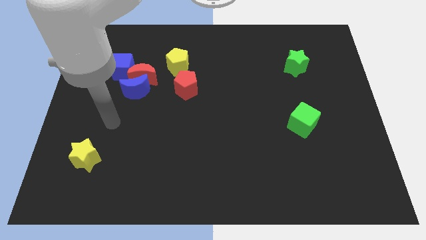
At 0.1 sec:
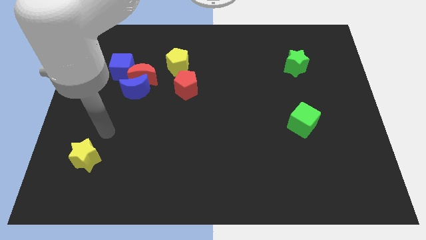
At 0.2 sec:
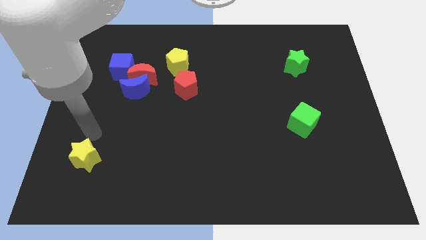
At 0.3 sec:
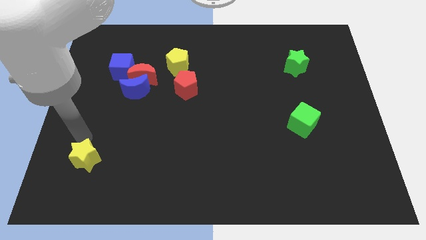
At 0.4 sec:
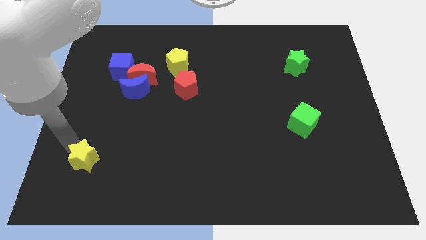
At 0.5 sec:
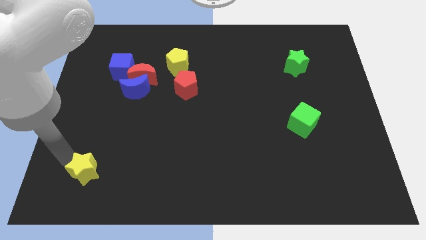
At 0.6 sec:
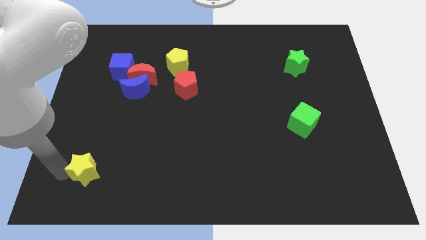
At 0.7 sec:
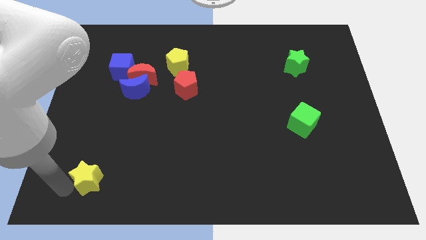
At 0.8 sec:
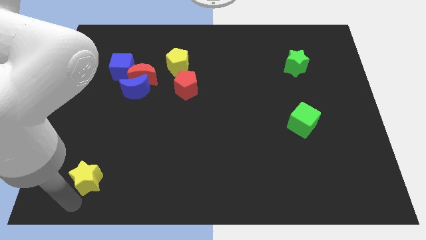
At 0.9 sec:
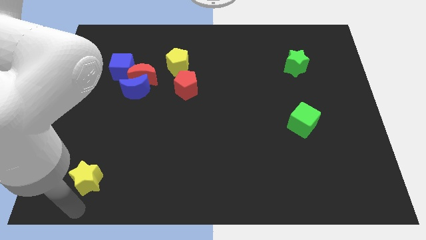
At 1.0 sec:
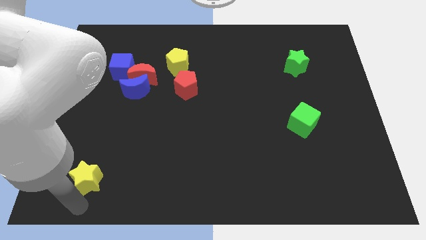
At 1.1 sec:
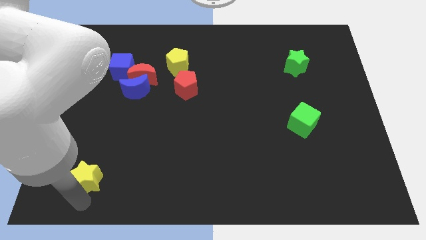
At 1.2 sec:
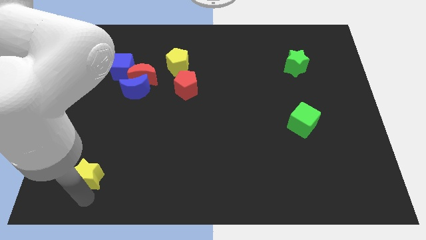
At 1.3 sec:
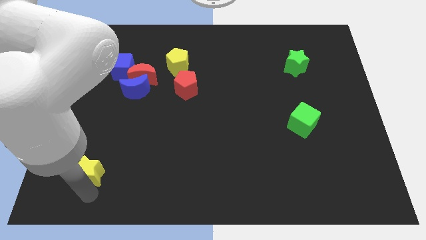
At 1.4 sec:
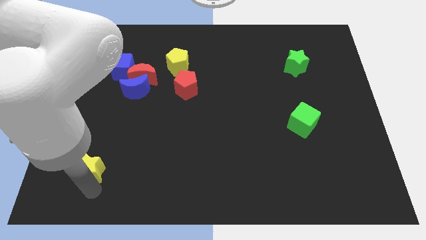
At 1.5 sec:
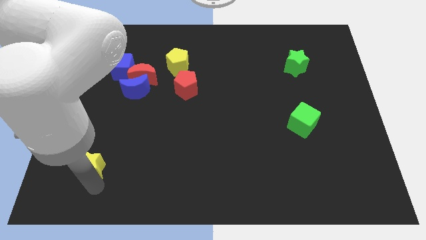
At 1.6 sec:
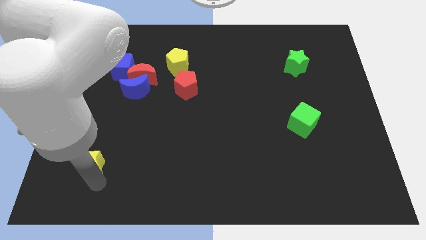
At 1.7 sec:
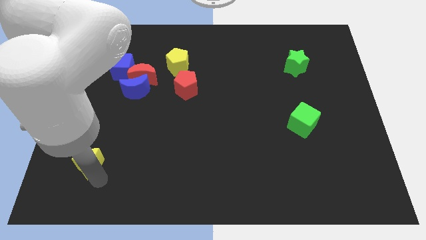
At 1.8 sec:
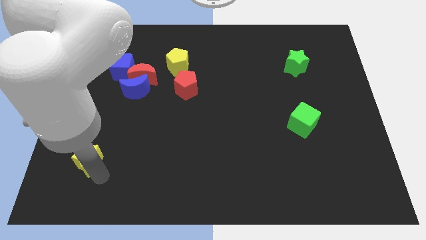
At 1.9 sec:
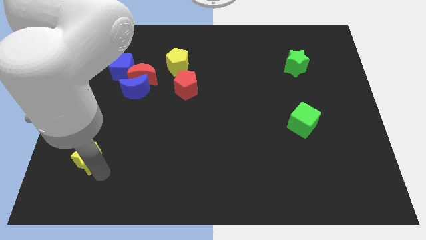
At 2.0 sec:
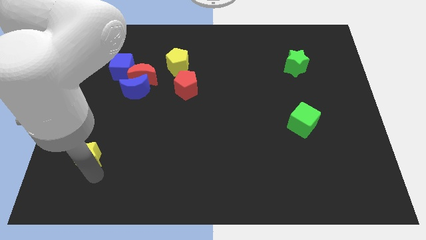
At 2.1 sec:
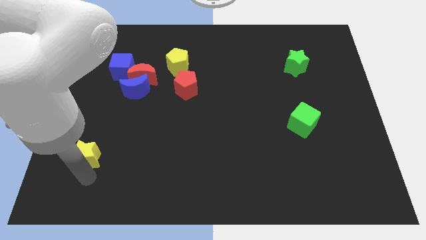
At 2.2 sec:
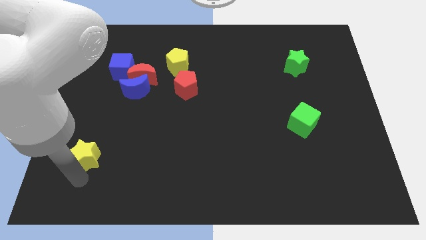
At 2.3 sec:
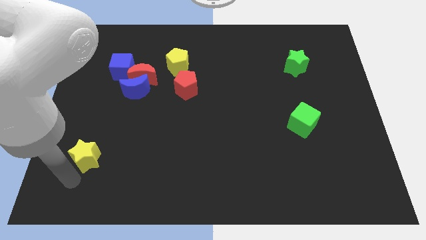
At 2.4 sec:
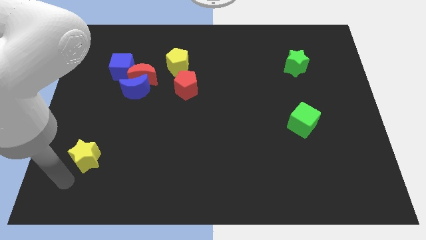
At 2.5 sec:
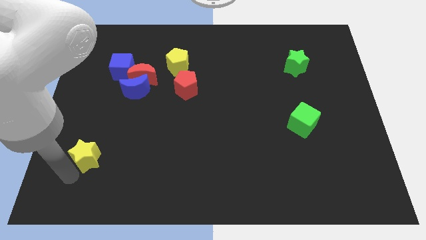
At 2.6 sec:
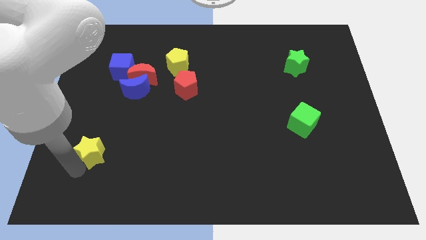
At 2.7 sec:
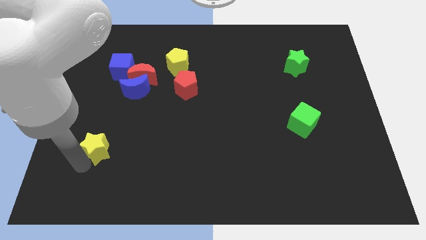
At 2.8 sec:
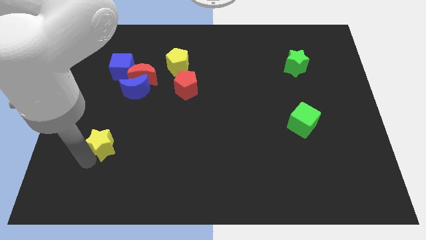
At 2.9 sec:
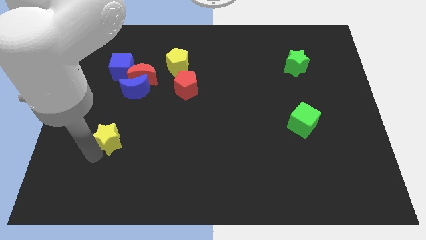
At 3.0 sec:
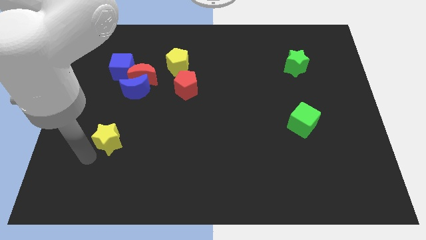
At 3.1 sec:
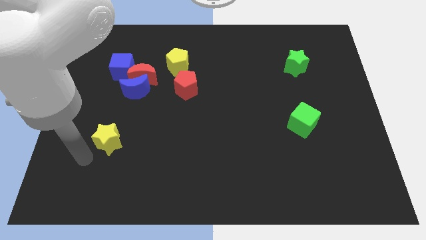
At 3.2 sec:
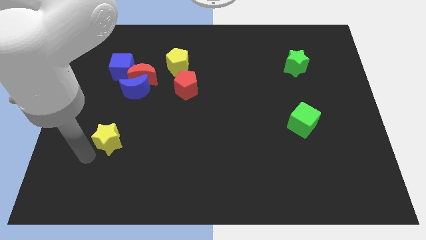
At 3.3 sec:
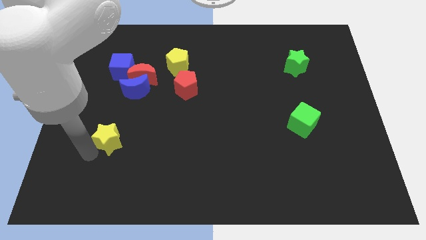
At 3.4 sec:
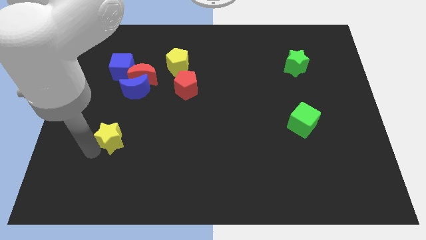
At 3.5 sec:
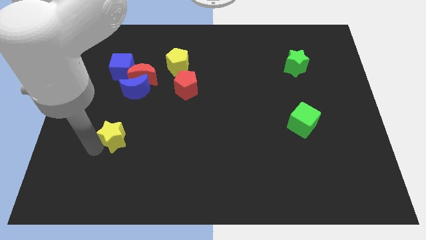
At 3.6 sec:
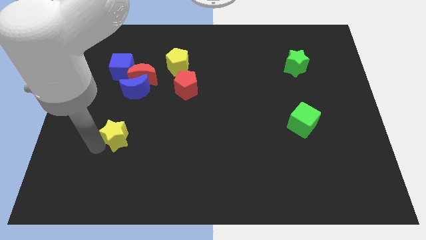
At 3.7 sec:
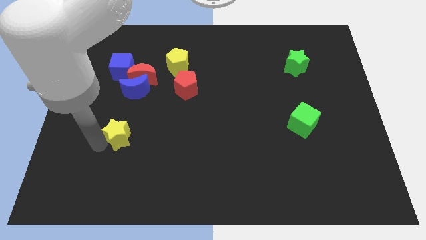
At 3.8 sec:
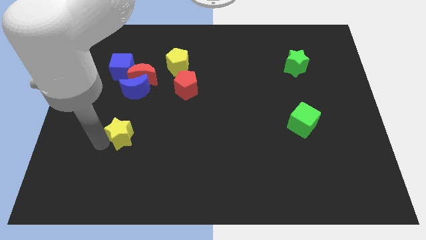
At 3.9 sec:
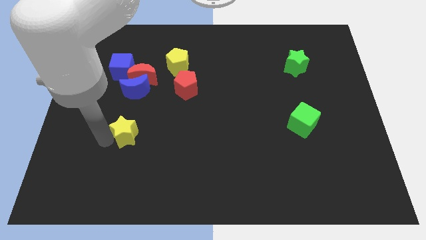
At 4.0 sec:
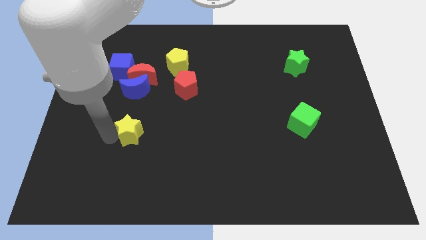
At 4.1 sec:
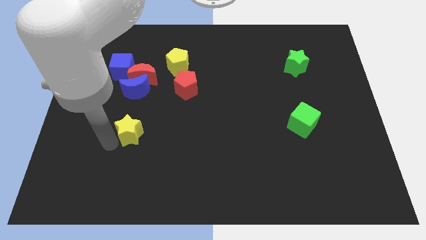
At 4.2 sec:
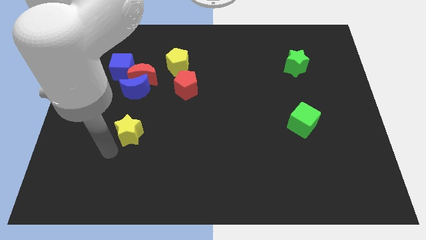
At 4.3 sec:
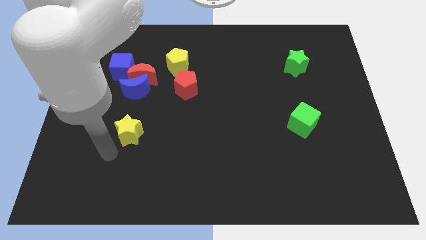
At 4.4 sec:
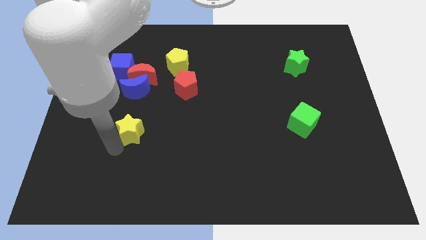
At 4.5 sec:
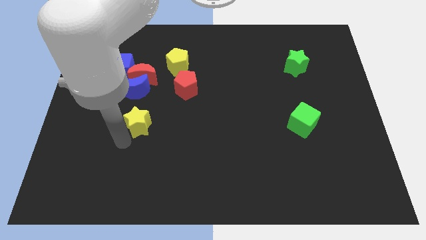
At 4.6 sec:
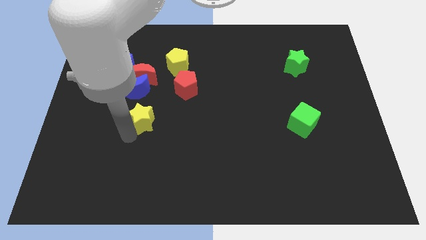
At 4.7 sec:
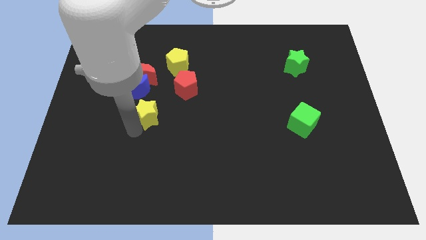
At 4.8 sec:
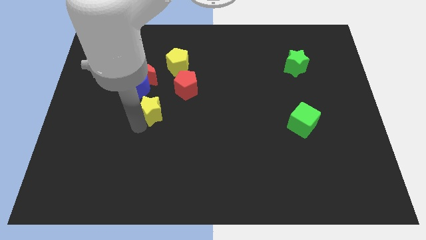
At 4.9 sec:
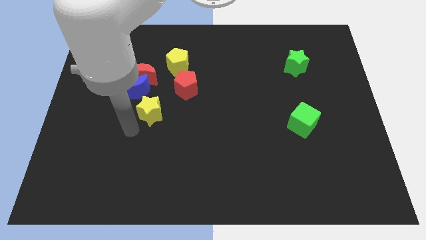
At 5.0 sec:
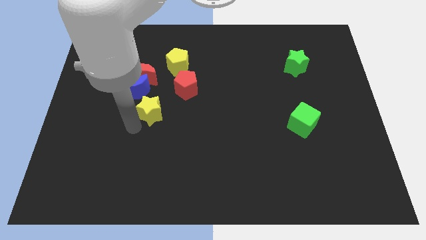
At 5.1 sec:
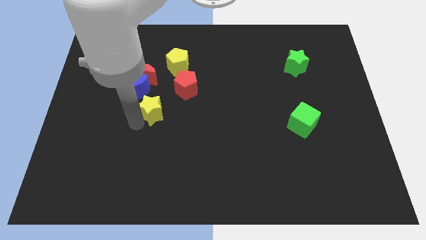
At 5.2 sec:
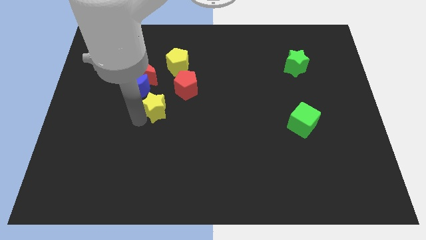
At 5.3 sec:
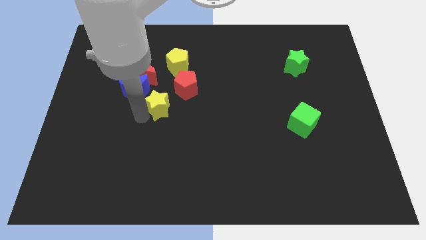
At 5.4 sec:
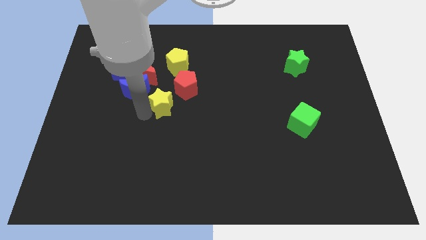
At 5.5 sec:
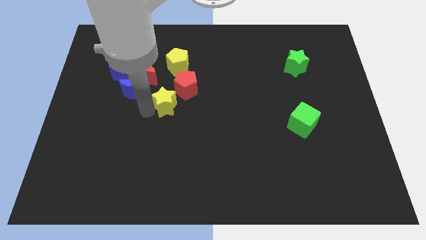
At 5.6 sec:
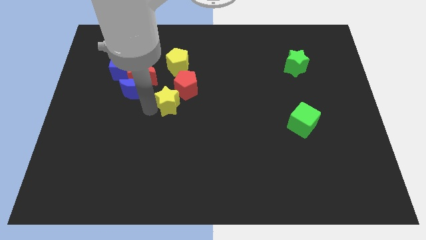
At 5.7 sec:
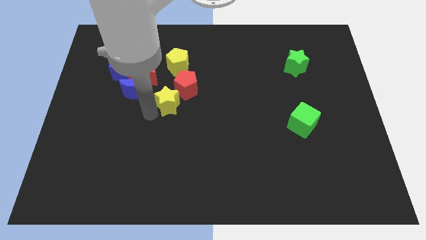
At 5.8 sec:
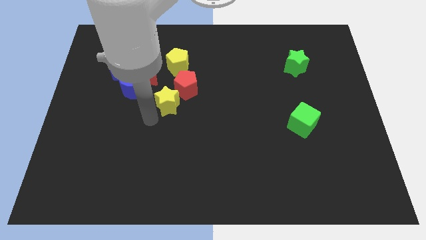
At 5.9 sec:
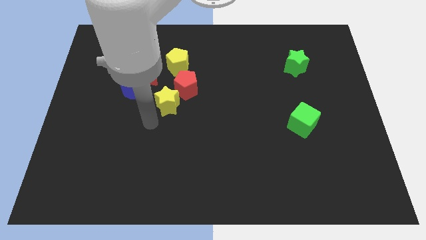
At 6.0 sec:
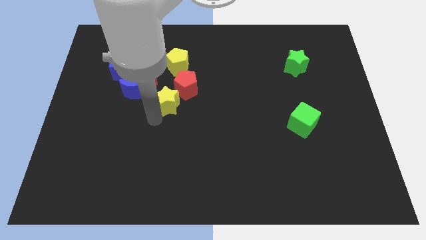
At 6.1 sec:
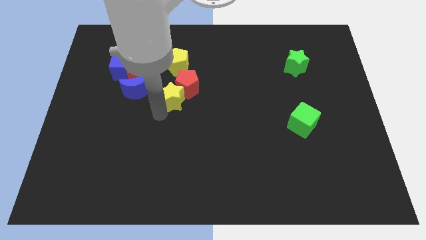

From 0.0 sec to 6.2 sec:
move the yellow star close to the red pentagon

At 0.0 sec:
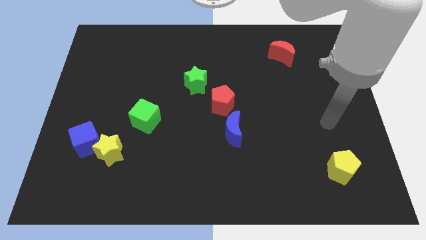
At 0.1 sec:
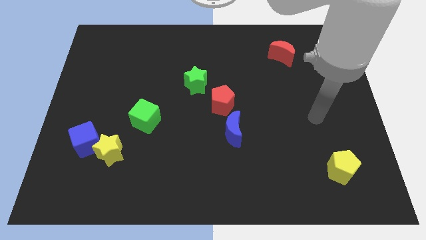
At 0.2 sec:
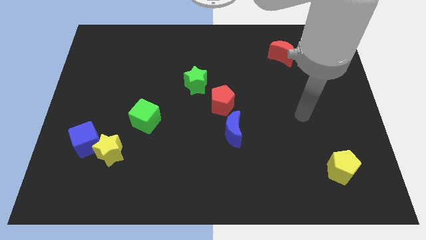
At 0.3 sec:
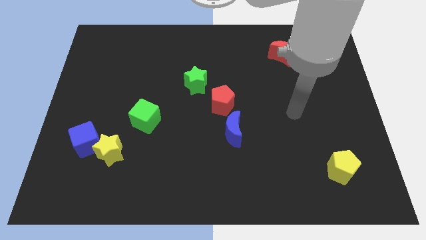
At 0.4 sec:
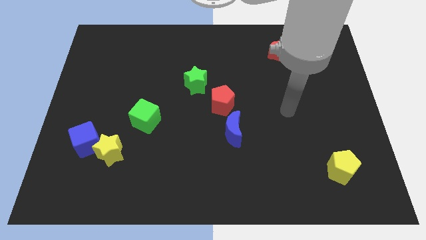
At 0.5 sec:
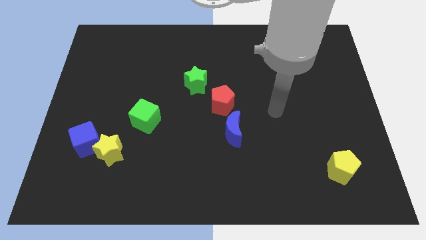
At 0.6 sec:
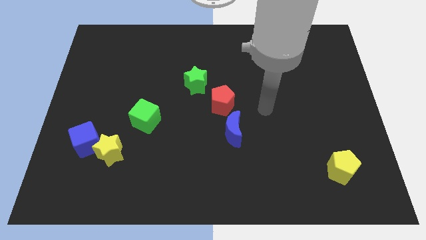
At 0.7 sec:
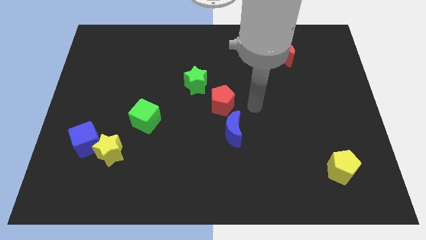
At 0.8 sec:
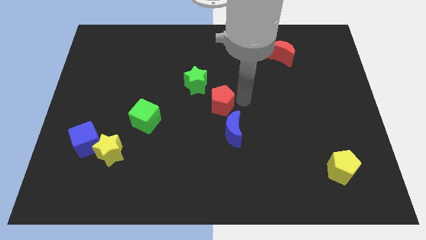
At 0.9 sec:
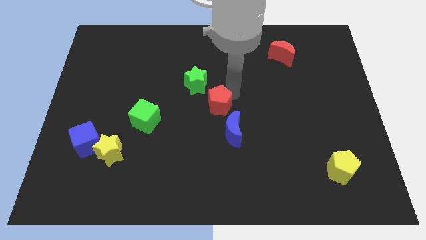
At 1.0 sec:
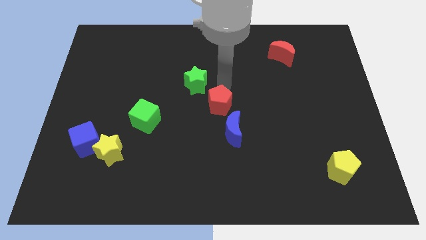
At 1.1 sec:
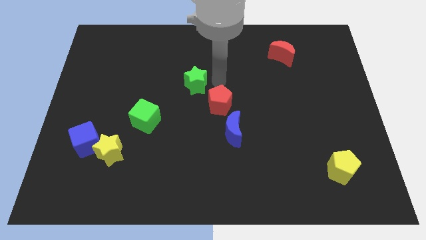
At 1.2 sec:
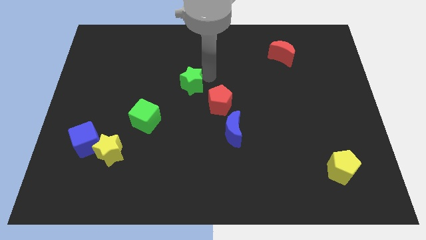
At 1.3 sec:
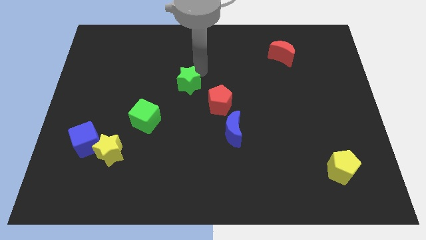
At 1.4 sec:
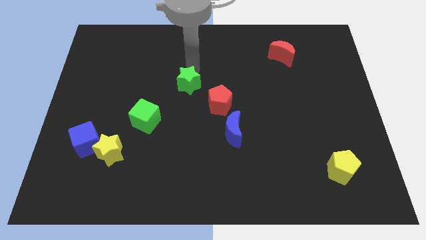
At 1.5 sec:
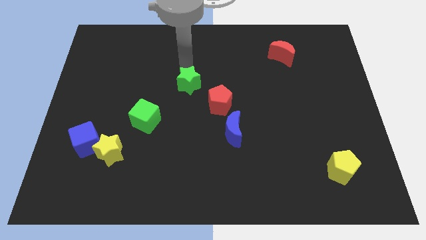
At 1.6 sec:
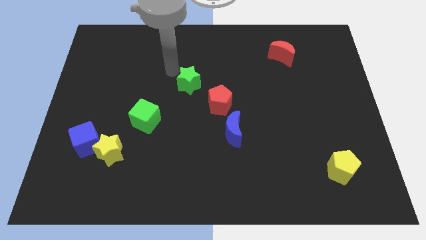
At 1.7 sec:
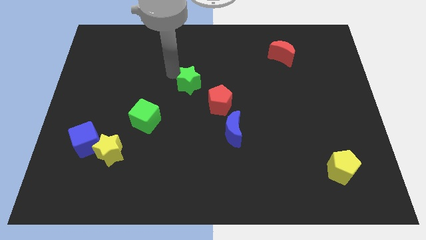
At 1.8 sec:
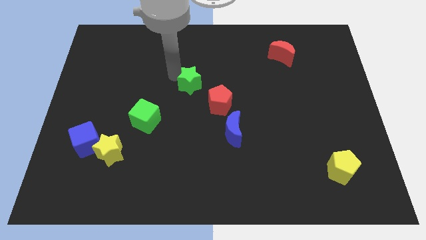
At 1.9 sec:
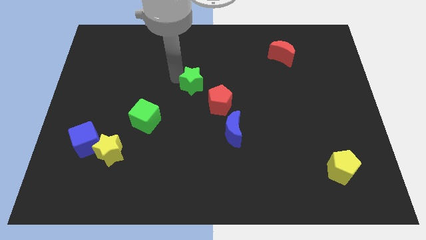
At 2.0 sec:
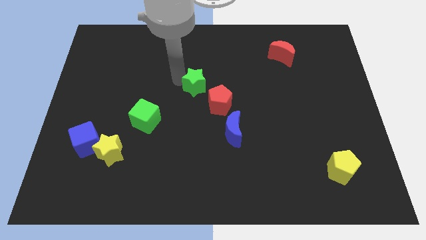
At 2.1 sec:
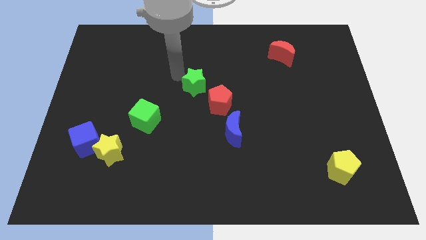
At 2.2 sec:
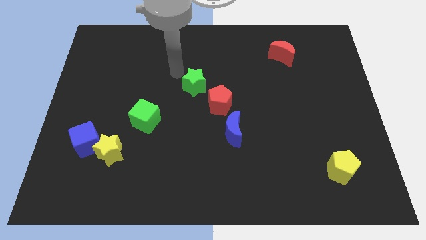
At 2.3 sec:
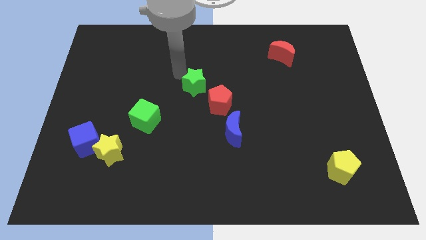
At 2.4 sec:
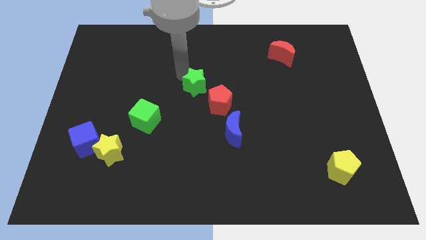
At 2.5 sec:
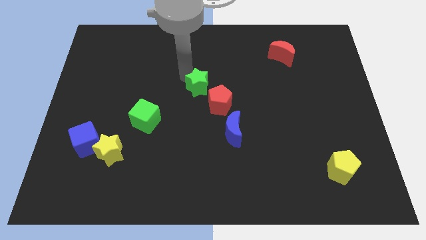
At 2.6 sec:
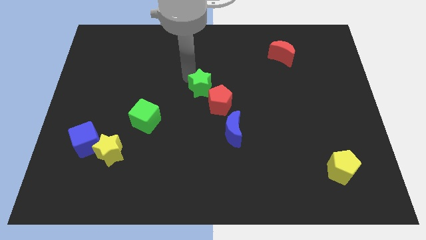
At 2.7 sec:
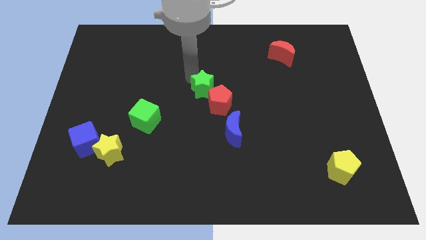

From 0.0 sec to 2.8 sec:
put the green star towards the red pentagon
